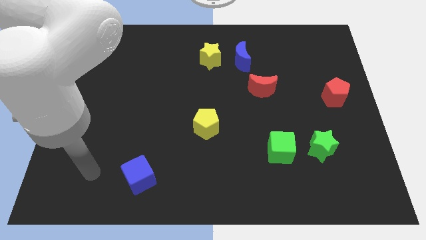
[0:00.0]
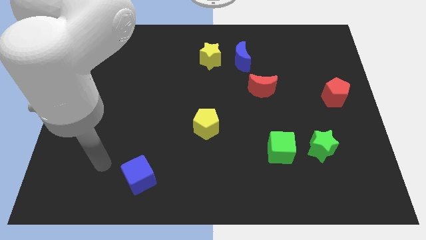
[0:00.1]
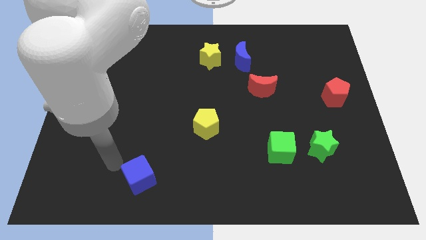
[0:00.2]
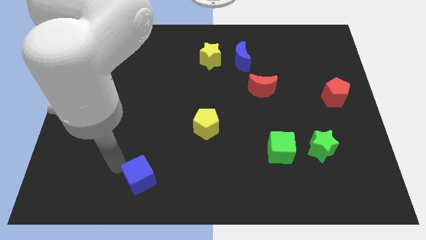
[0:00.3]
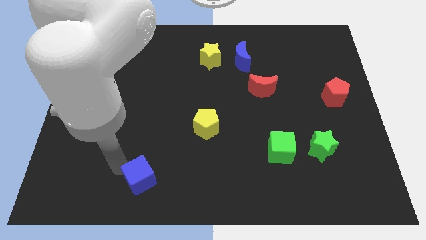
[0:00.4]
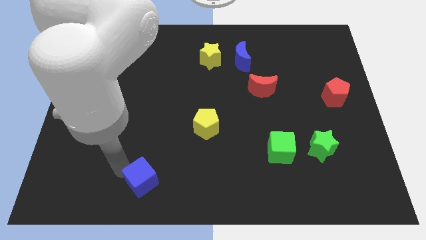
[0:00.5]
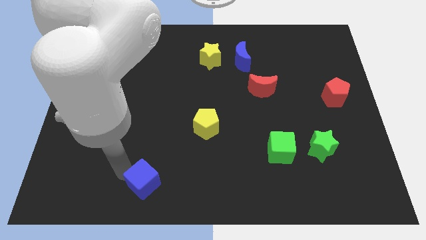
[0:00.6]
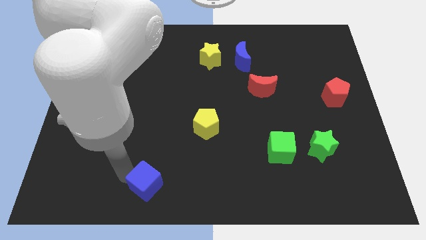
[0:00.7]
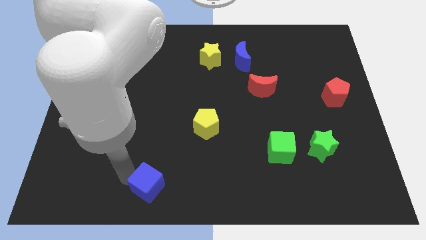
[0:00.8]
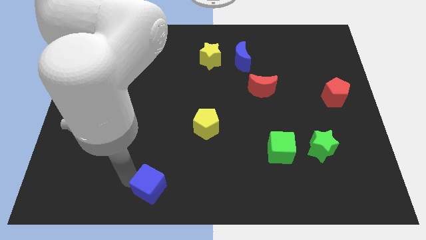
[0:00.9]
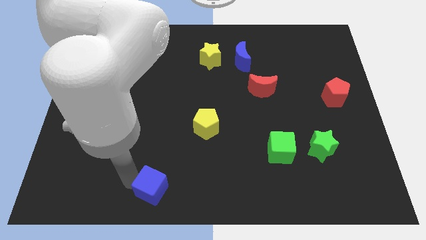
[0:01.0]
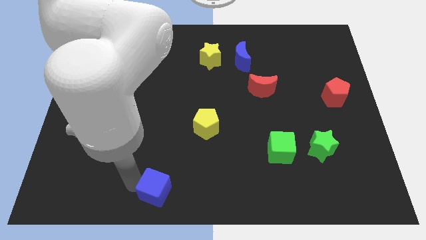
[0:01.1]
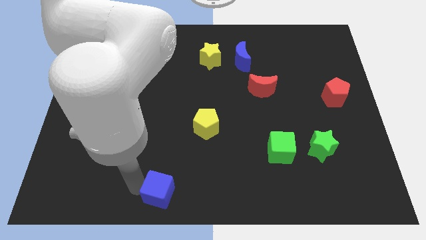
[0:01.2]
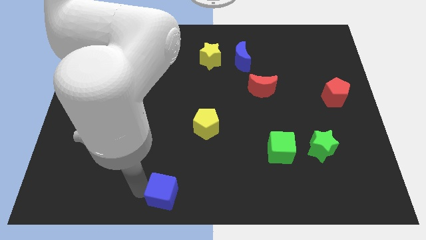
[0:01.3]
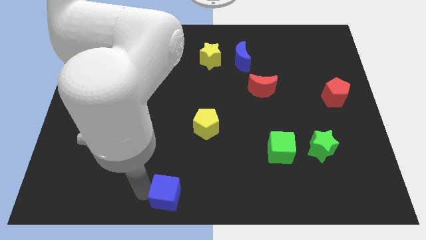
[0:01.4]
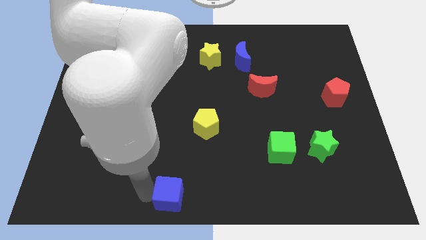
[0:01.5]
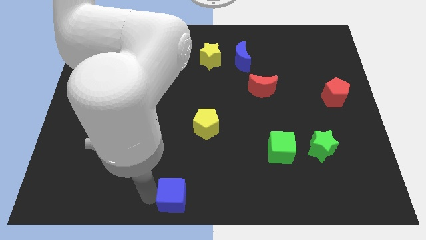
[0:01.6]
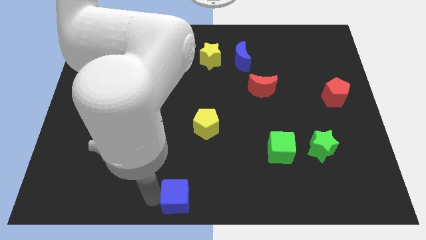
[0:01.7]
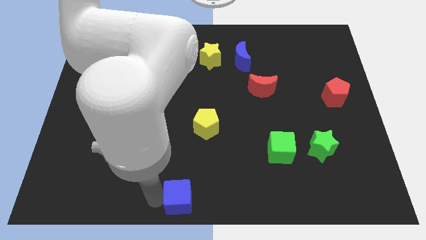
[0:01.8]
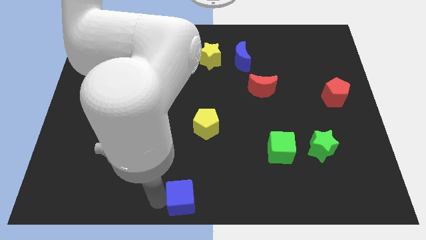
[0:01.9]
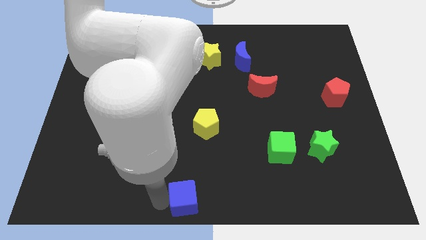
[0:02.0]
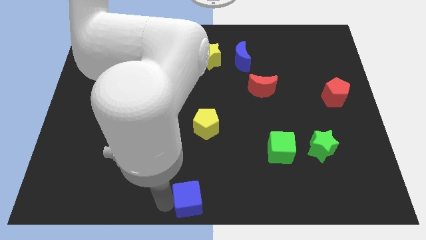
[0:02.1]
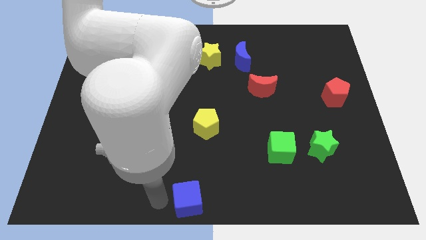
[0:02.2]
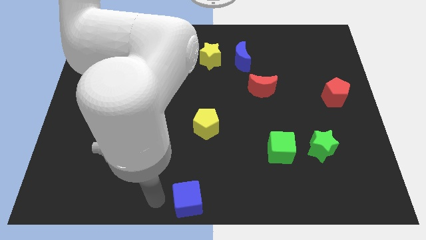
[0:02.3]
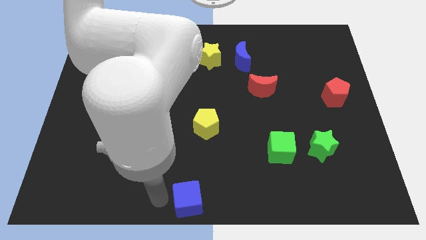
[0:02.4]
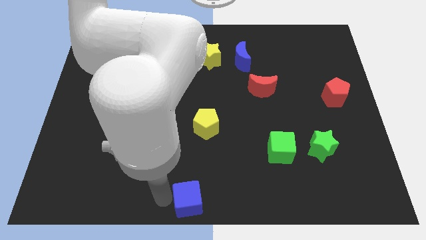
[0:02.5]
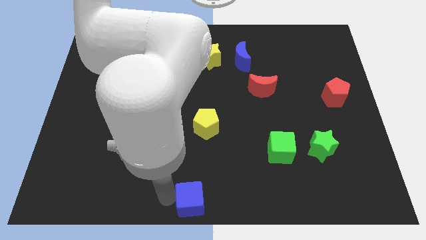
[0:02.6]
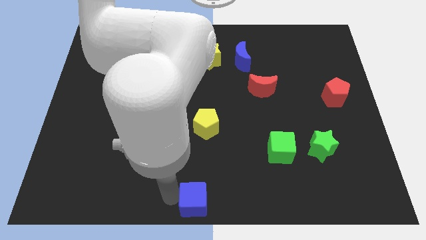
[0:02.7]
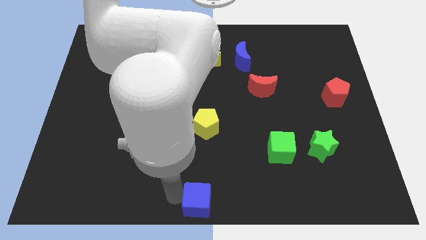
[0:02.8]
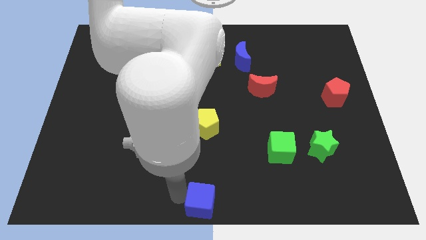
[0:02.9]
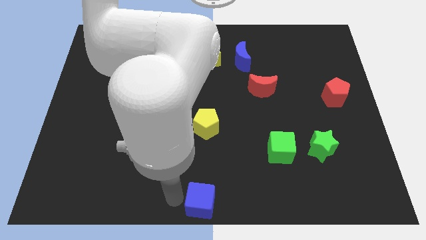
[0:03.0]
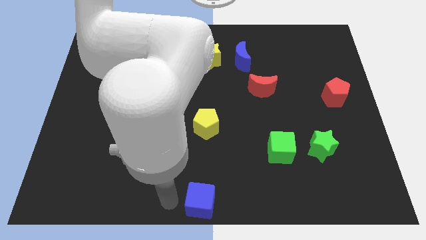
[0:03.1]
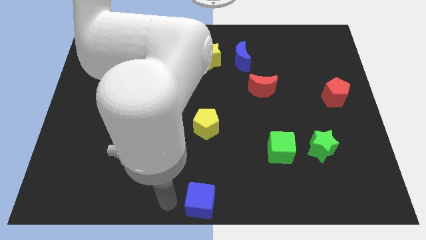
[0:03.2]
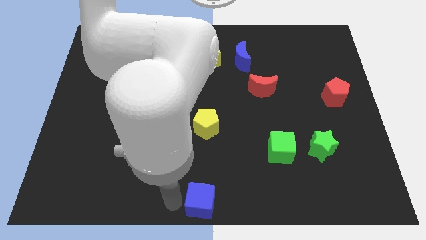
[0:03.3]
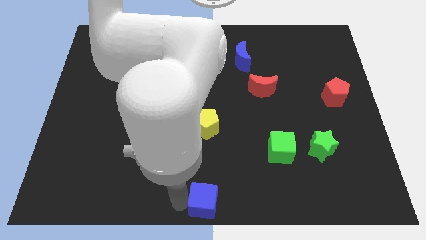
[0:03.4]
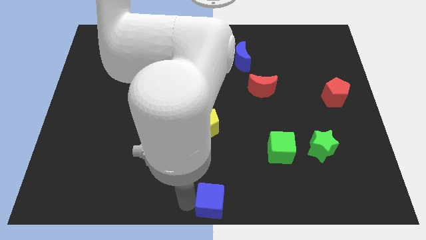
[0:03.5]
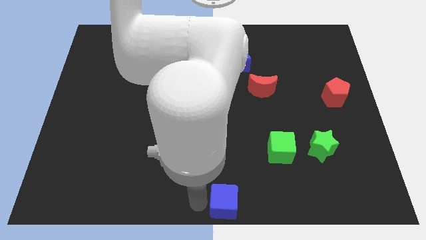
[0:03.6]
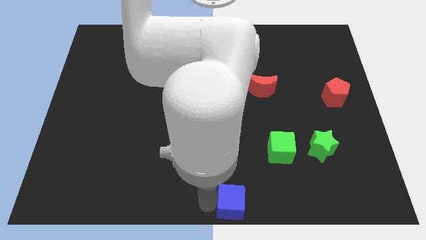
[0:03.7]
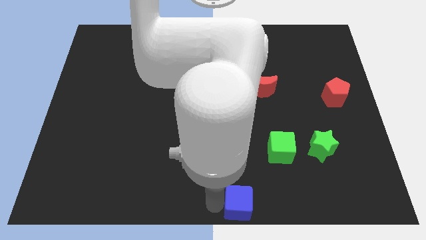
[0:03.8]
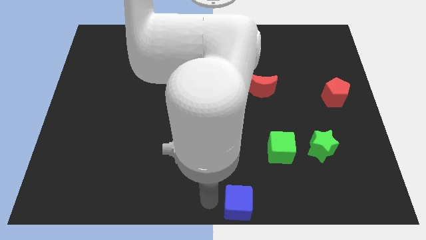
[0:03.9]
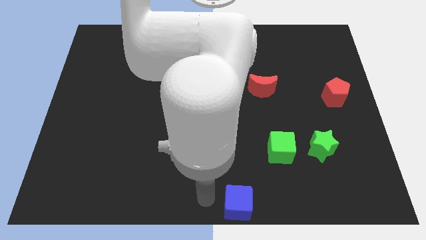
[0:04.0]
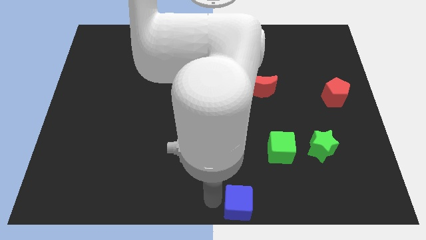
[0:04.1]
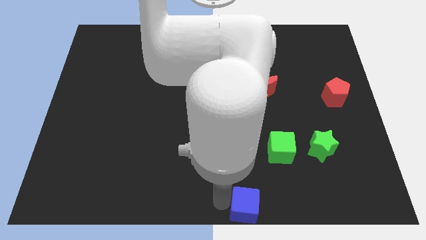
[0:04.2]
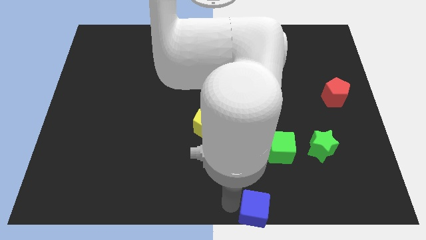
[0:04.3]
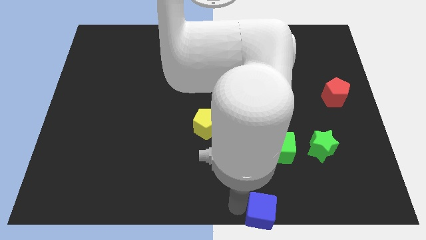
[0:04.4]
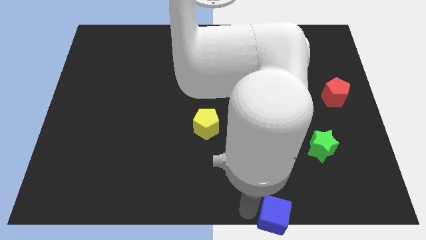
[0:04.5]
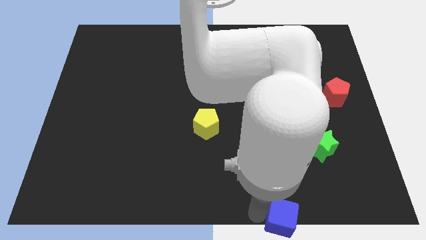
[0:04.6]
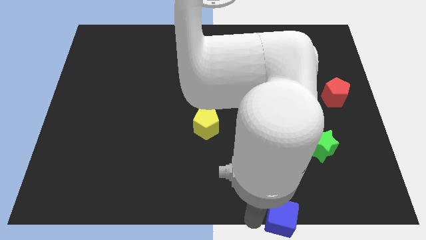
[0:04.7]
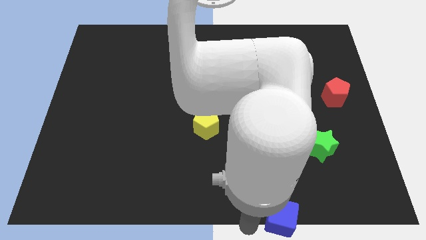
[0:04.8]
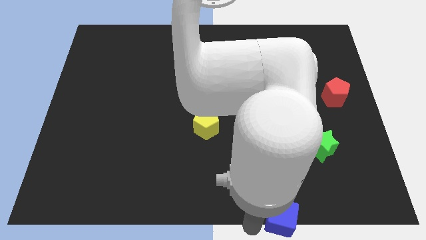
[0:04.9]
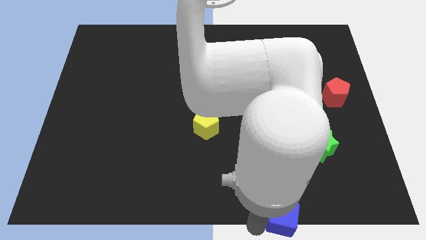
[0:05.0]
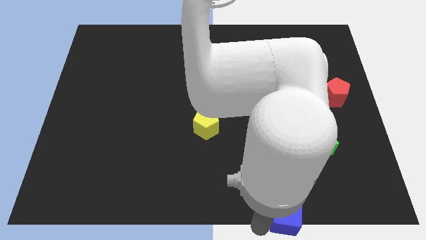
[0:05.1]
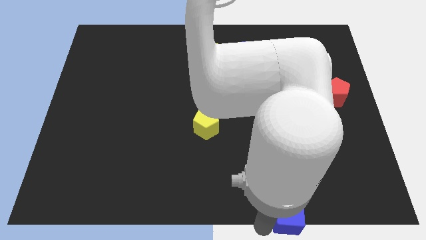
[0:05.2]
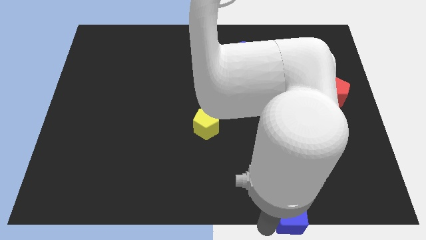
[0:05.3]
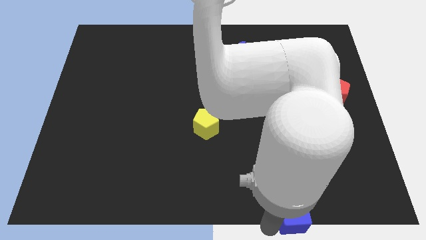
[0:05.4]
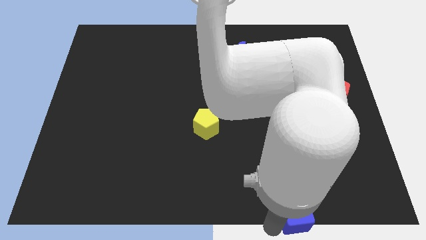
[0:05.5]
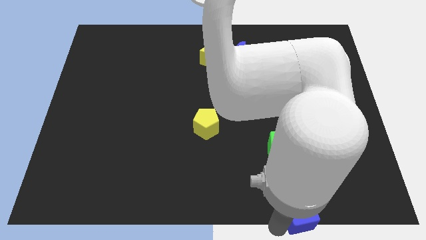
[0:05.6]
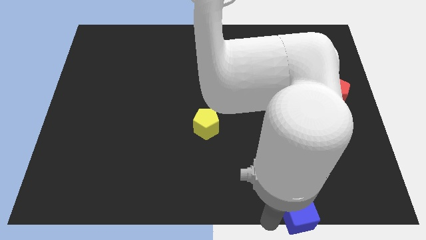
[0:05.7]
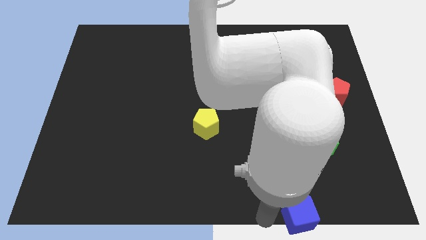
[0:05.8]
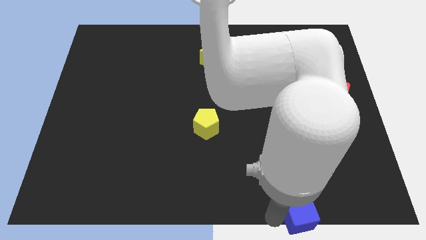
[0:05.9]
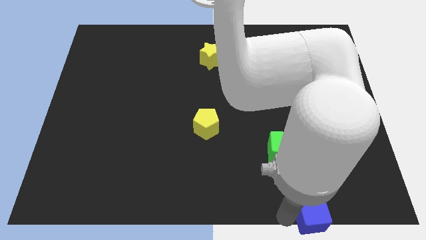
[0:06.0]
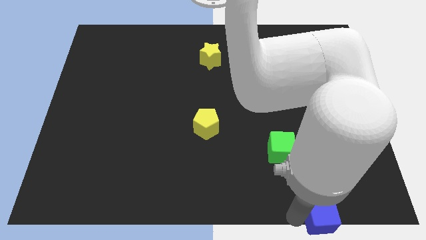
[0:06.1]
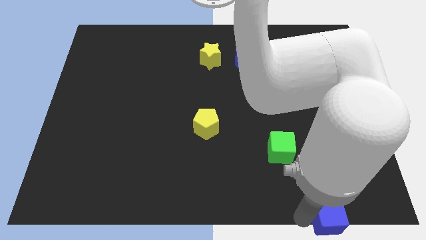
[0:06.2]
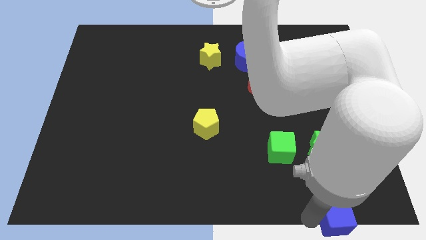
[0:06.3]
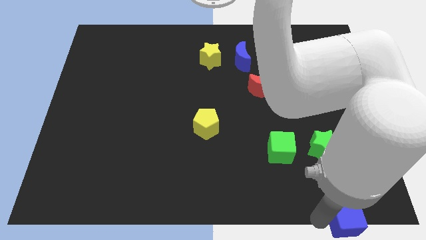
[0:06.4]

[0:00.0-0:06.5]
slide the blue cube to the bottom right of the board

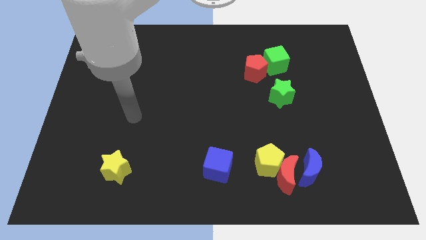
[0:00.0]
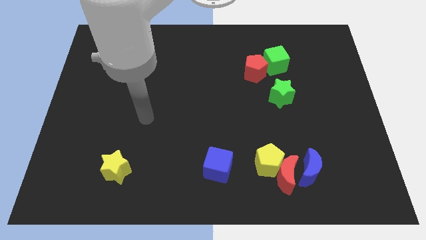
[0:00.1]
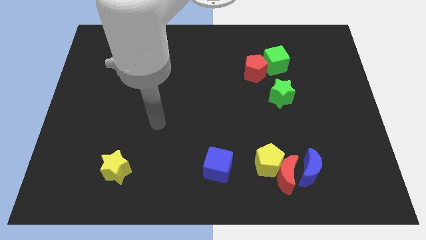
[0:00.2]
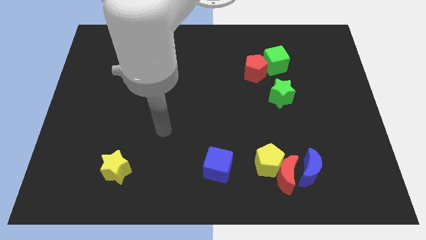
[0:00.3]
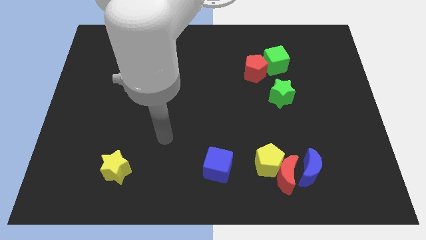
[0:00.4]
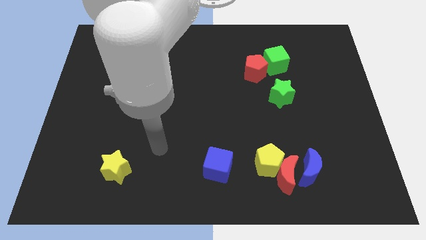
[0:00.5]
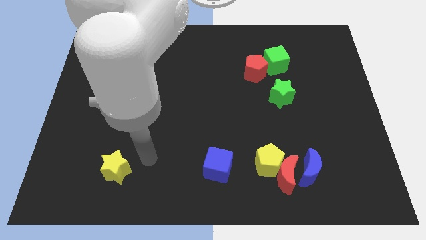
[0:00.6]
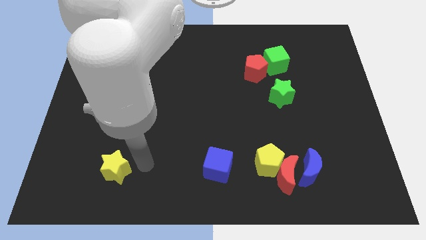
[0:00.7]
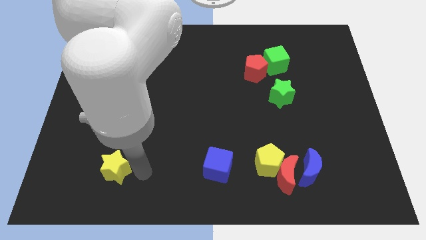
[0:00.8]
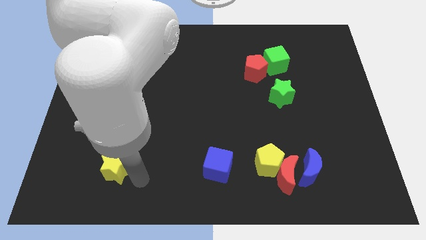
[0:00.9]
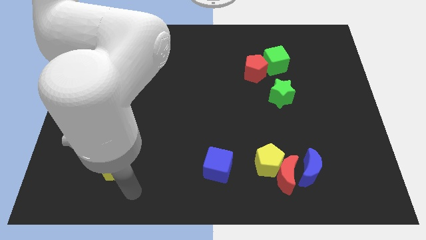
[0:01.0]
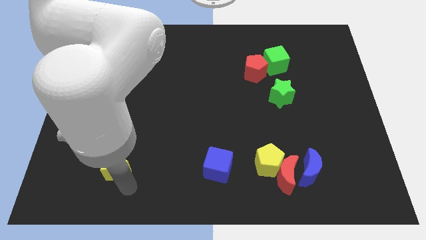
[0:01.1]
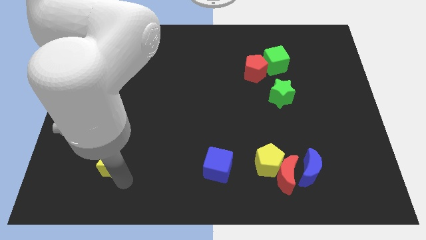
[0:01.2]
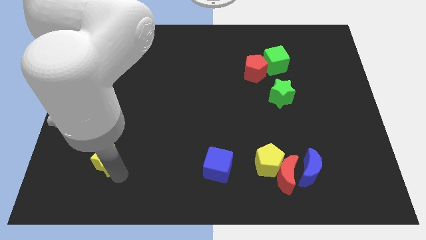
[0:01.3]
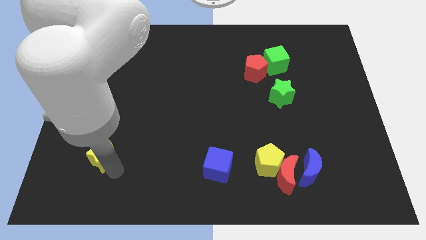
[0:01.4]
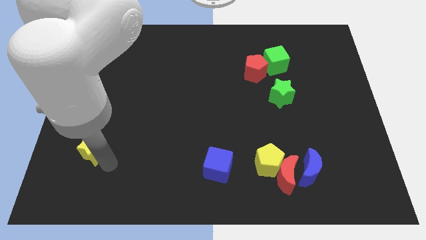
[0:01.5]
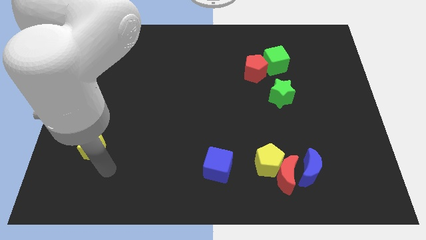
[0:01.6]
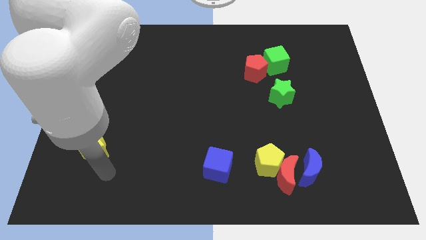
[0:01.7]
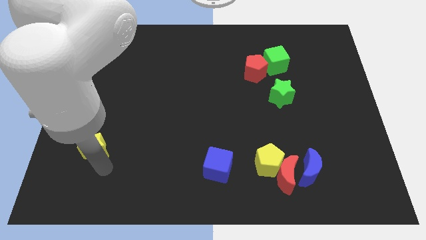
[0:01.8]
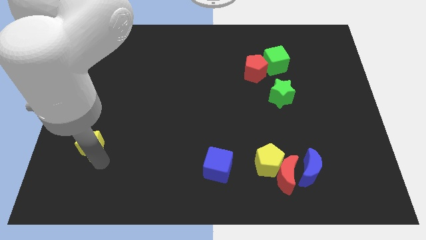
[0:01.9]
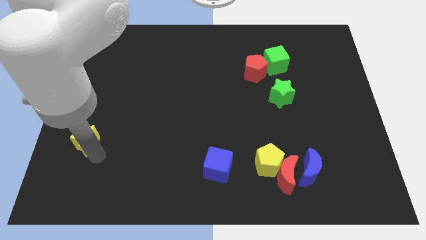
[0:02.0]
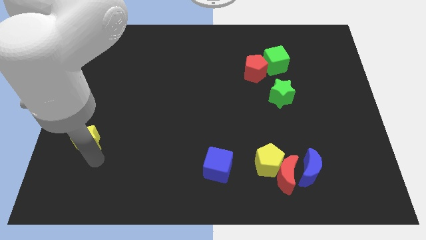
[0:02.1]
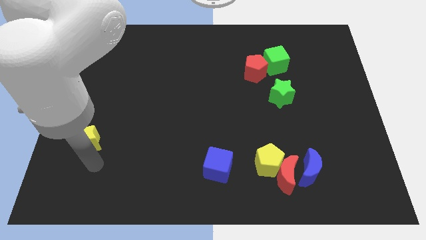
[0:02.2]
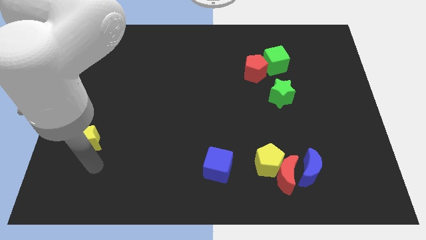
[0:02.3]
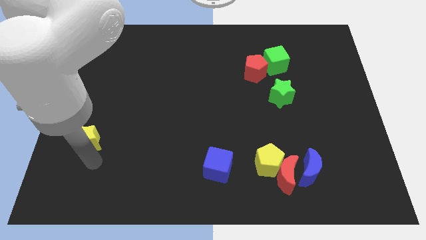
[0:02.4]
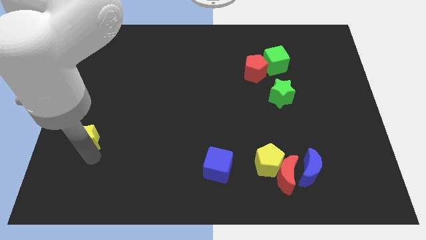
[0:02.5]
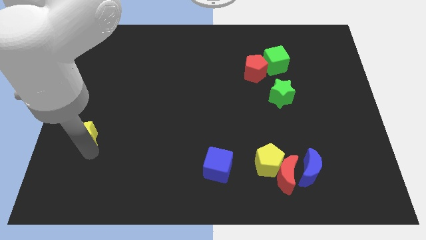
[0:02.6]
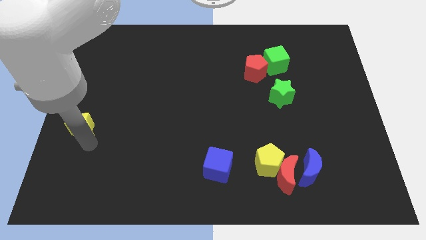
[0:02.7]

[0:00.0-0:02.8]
put the yellow star to the left side
